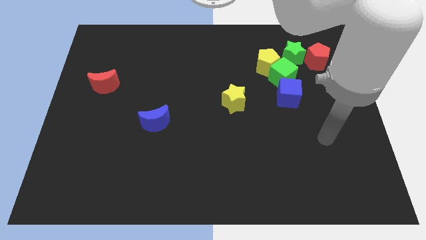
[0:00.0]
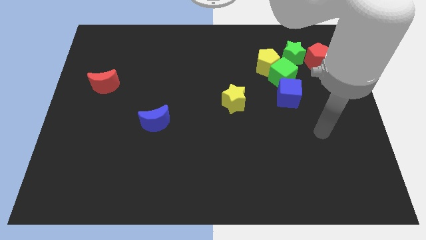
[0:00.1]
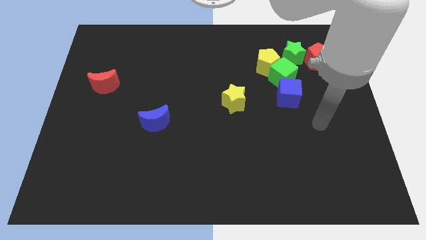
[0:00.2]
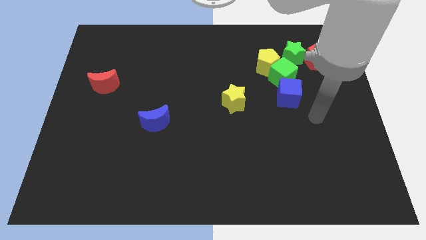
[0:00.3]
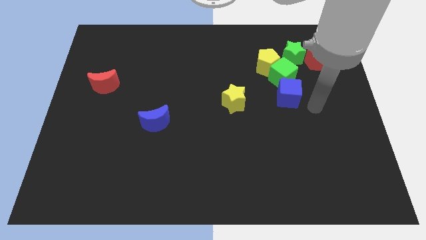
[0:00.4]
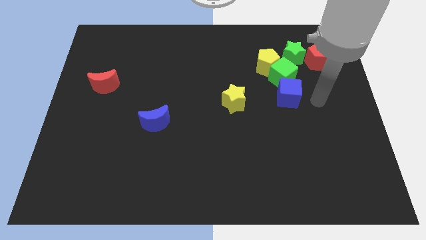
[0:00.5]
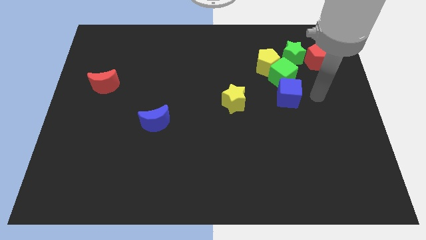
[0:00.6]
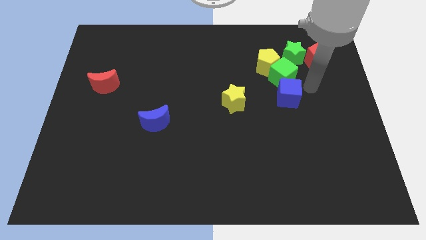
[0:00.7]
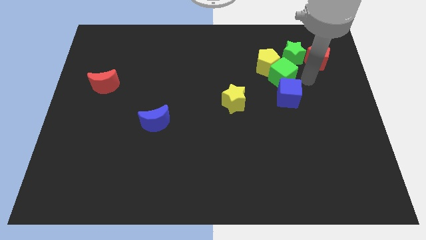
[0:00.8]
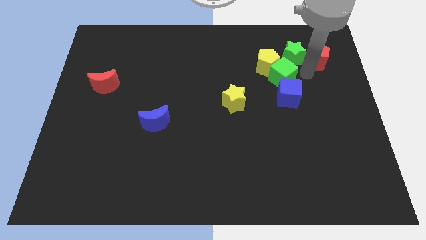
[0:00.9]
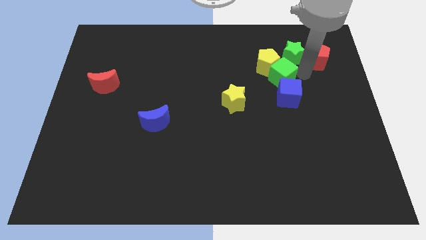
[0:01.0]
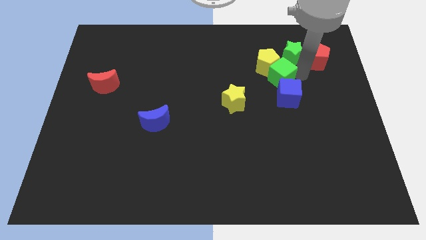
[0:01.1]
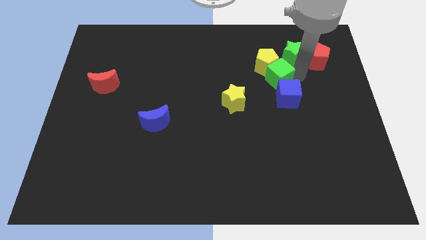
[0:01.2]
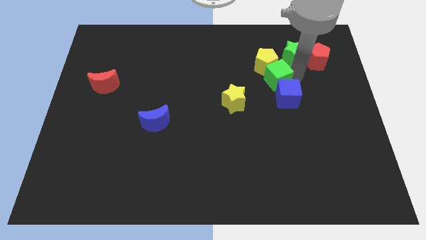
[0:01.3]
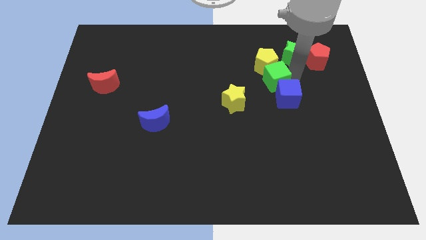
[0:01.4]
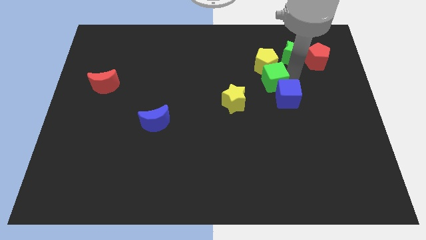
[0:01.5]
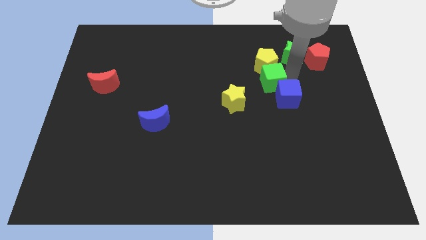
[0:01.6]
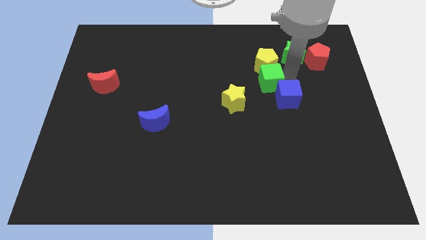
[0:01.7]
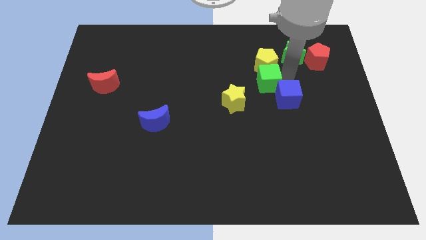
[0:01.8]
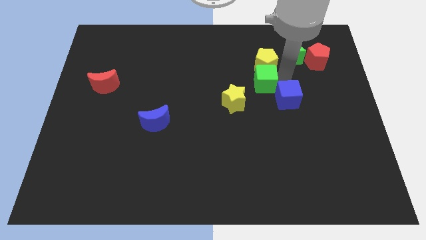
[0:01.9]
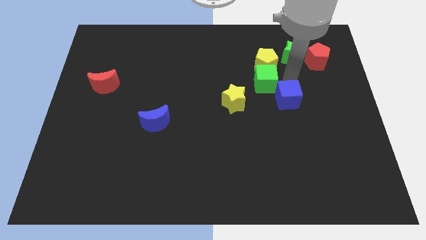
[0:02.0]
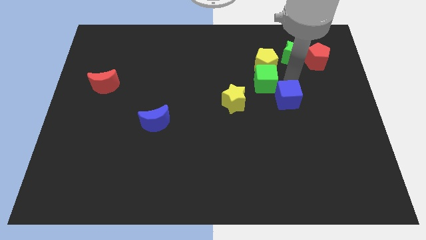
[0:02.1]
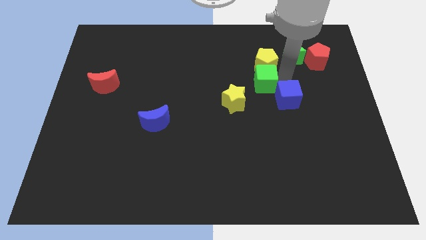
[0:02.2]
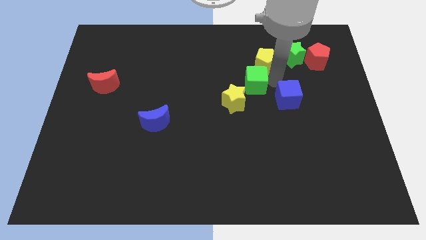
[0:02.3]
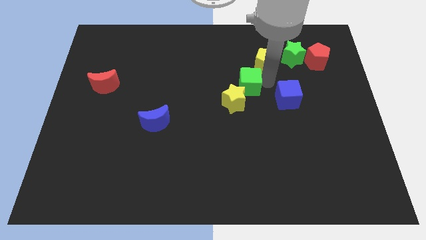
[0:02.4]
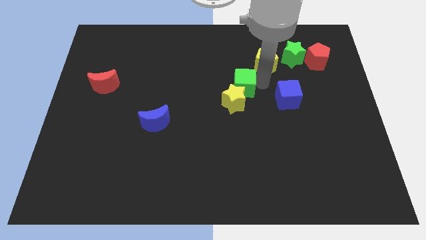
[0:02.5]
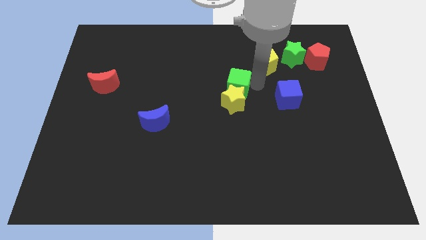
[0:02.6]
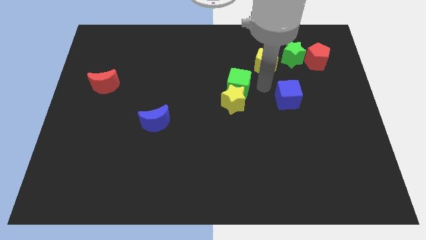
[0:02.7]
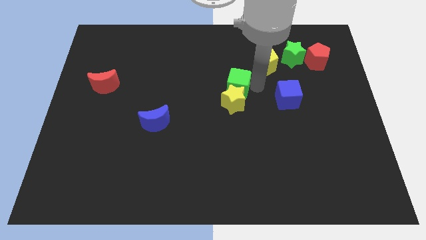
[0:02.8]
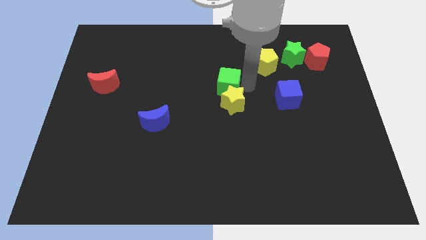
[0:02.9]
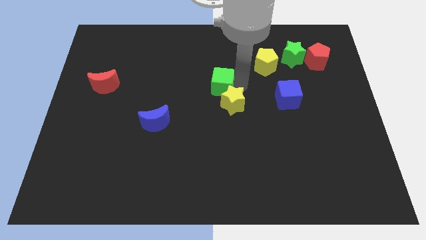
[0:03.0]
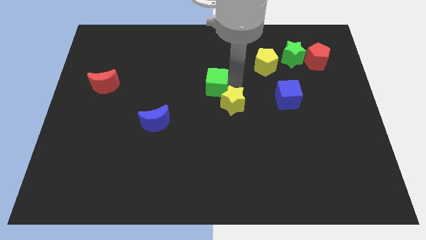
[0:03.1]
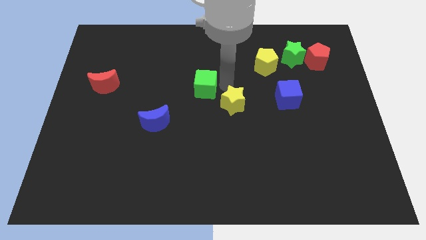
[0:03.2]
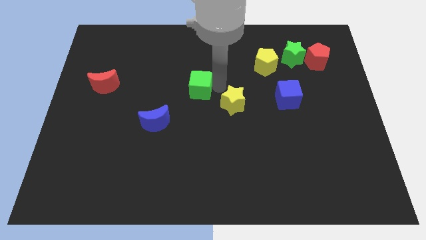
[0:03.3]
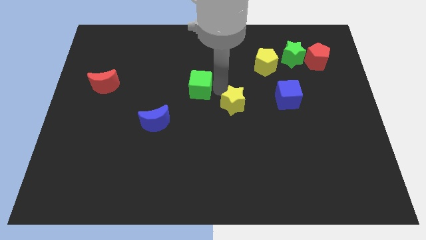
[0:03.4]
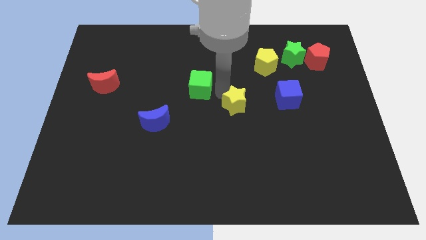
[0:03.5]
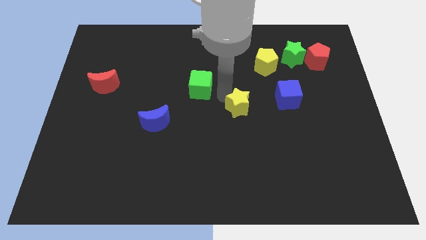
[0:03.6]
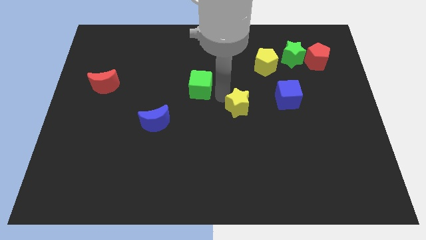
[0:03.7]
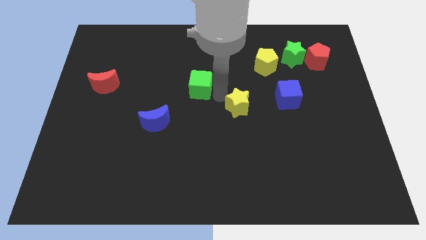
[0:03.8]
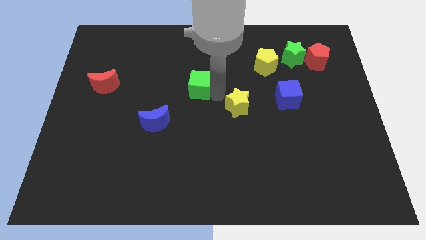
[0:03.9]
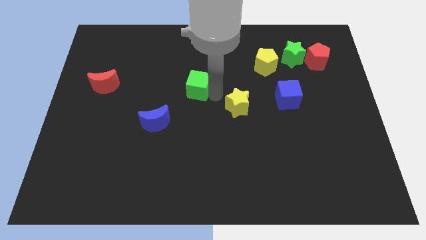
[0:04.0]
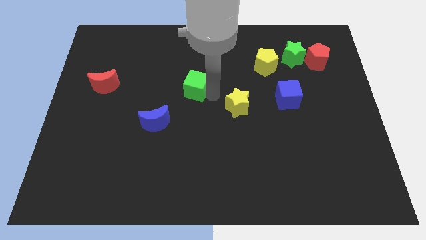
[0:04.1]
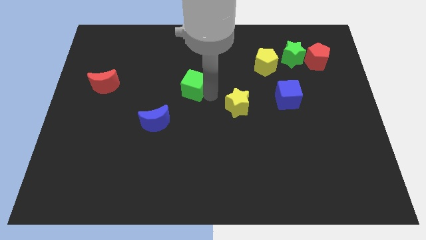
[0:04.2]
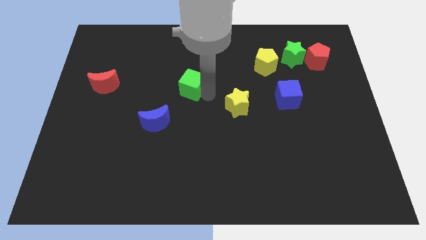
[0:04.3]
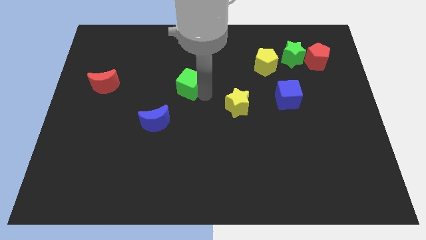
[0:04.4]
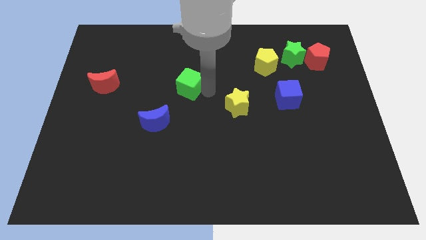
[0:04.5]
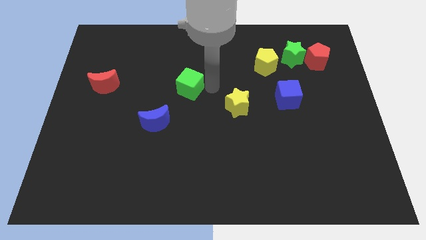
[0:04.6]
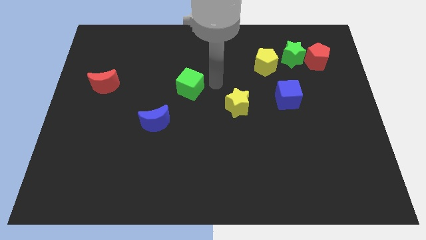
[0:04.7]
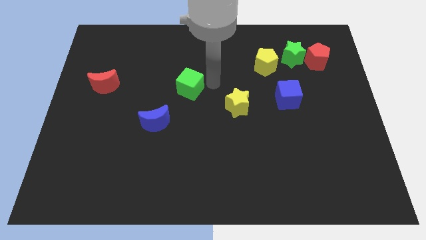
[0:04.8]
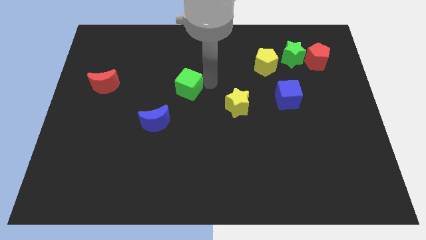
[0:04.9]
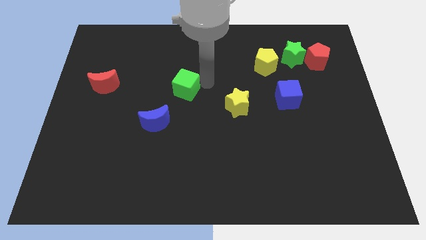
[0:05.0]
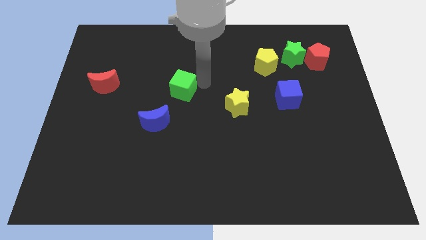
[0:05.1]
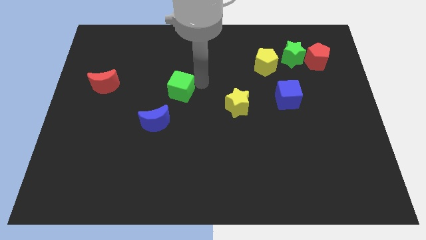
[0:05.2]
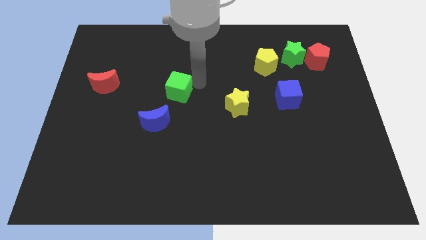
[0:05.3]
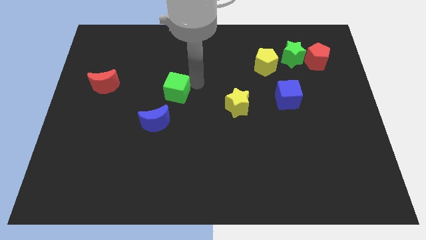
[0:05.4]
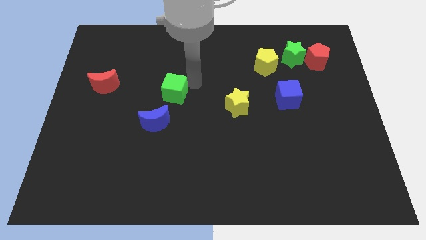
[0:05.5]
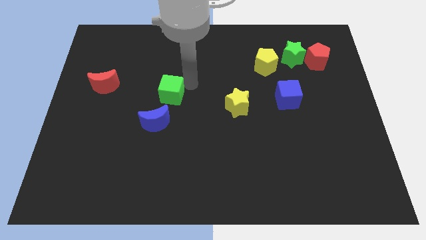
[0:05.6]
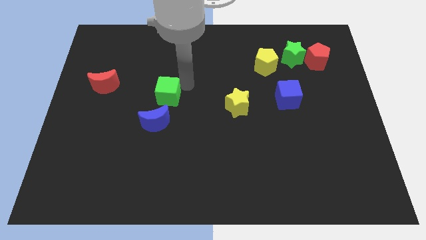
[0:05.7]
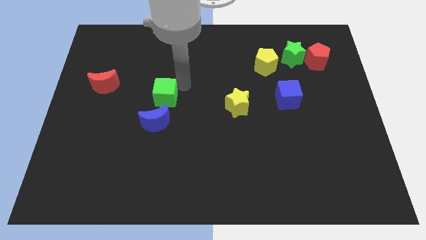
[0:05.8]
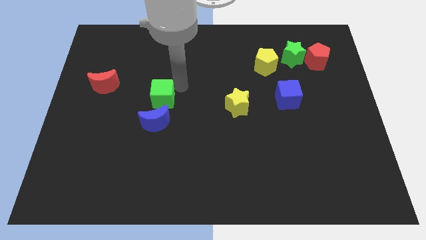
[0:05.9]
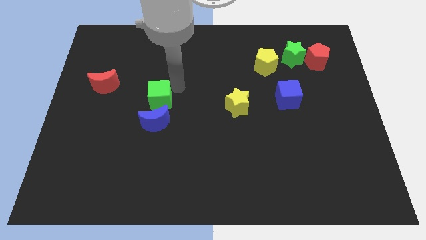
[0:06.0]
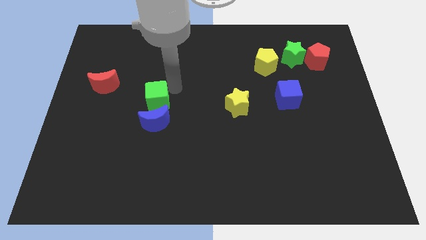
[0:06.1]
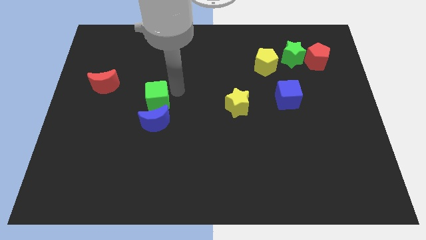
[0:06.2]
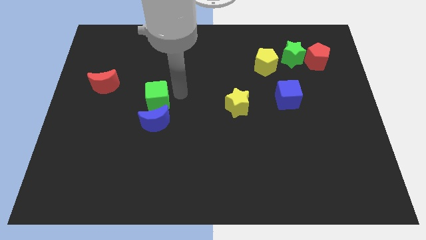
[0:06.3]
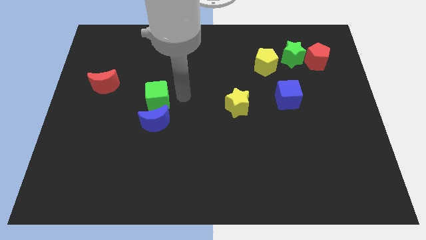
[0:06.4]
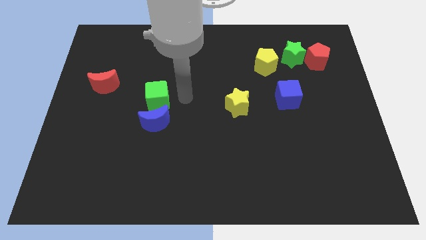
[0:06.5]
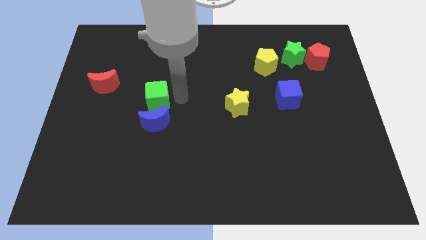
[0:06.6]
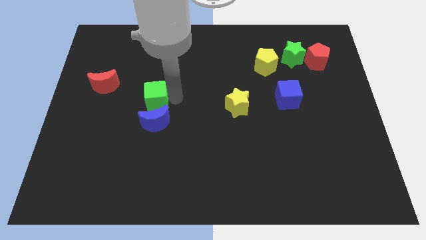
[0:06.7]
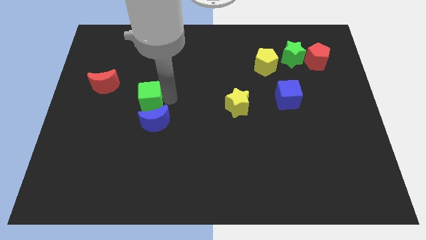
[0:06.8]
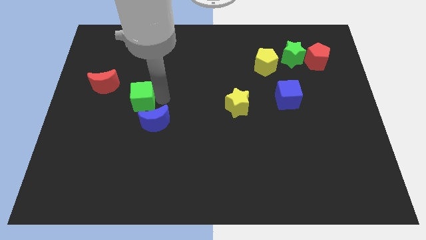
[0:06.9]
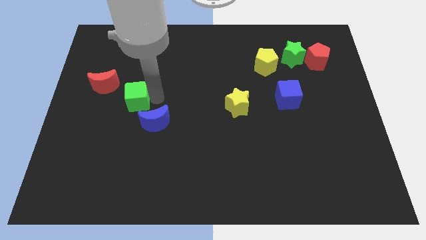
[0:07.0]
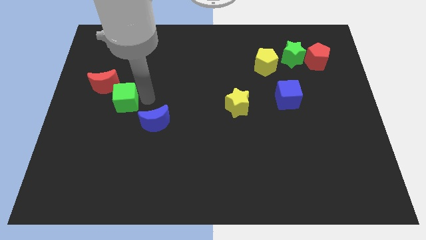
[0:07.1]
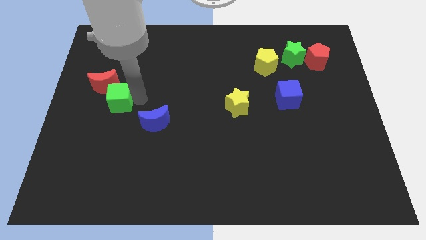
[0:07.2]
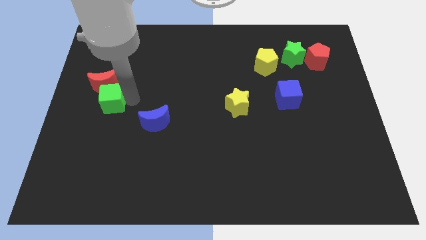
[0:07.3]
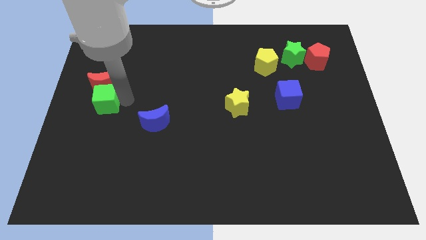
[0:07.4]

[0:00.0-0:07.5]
slide the green cube to the left side of the board
